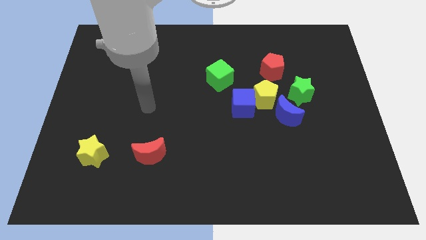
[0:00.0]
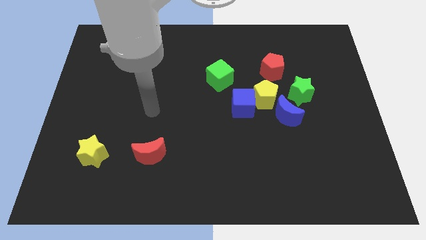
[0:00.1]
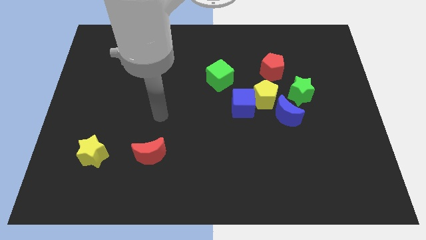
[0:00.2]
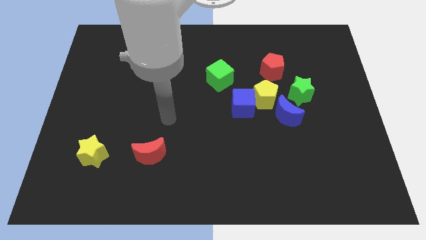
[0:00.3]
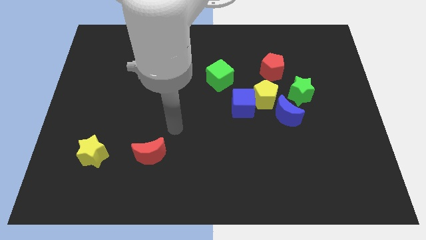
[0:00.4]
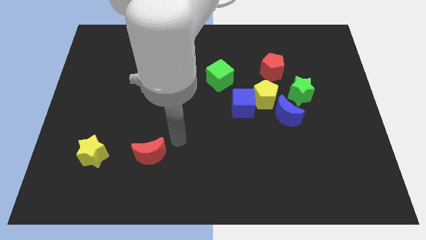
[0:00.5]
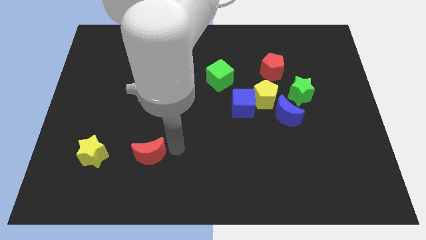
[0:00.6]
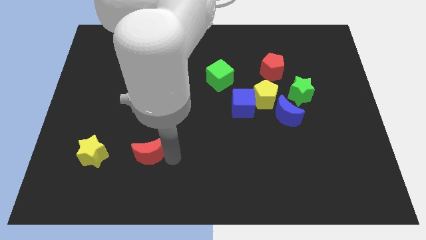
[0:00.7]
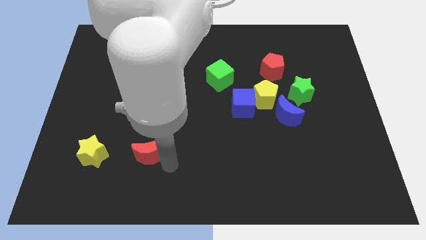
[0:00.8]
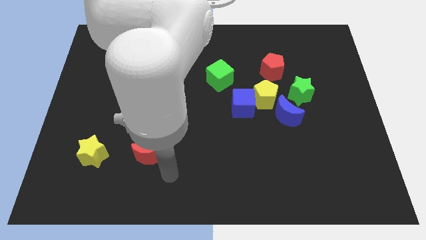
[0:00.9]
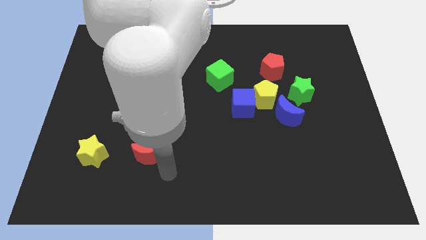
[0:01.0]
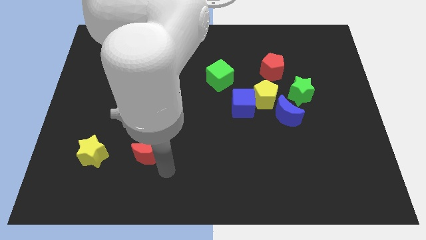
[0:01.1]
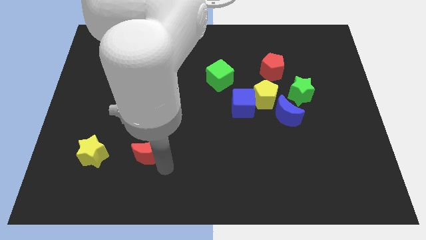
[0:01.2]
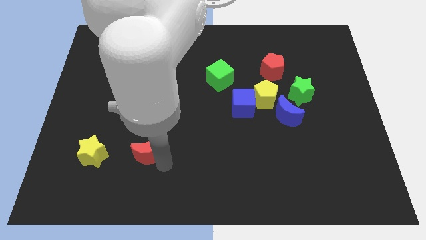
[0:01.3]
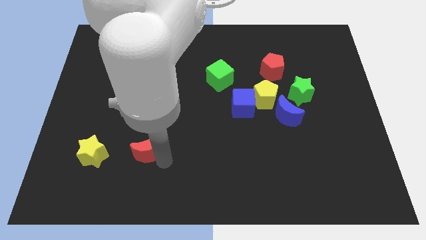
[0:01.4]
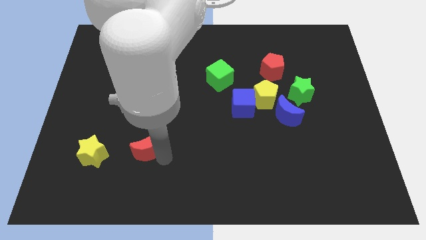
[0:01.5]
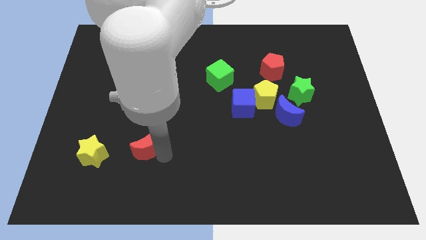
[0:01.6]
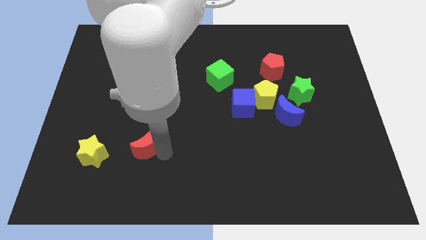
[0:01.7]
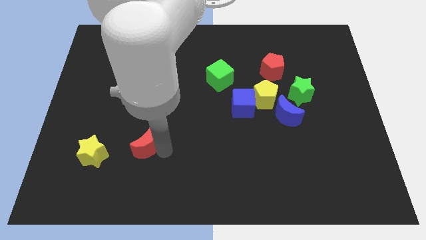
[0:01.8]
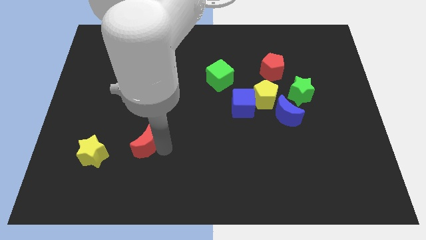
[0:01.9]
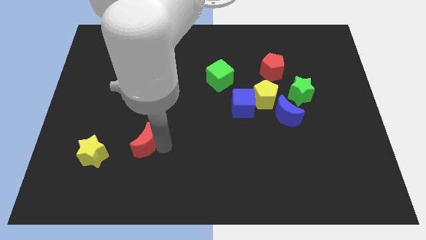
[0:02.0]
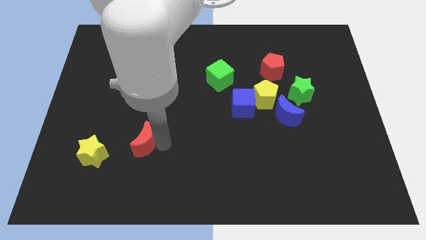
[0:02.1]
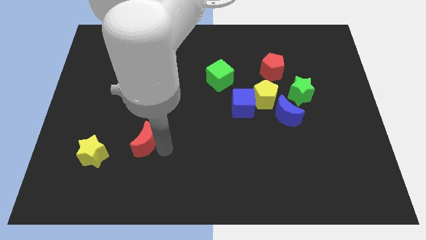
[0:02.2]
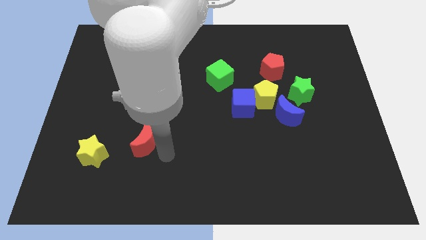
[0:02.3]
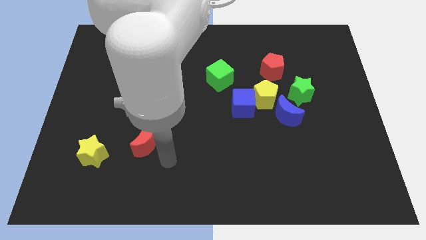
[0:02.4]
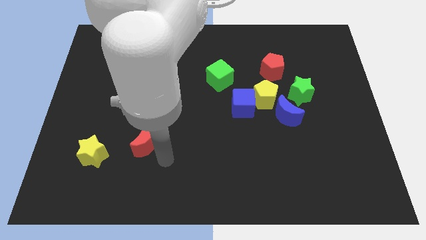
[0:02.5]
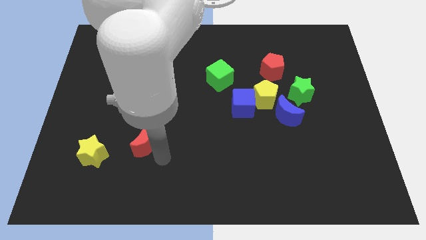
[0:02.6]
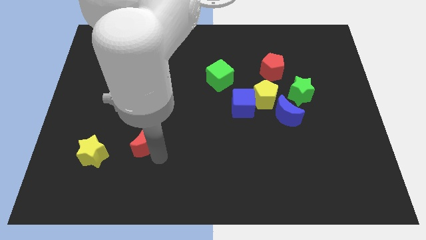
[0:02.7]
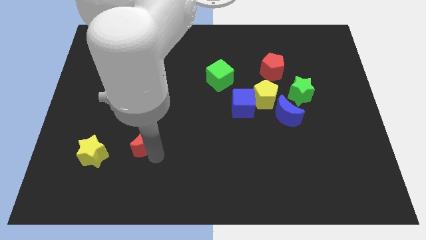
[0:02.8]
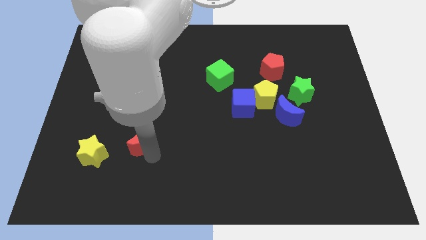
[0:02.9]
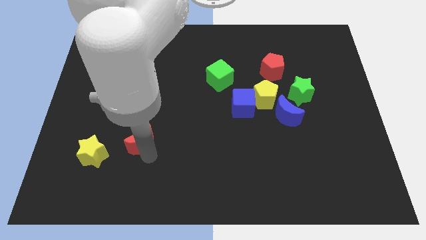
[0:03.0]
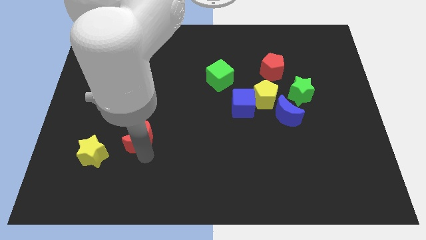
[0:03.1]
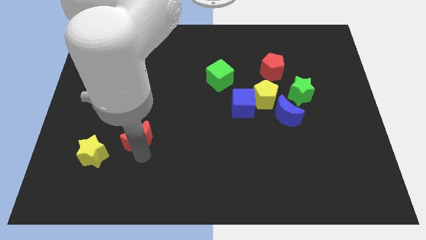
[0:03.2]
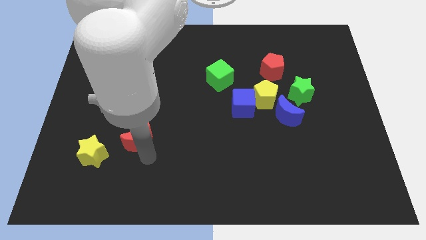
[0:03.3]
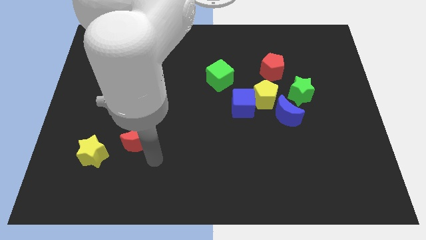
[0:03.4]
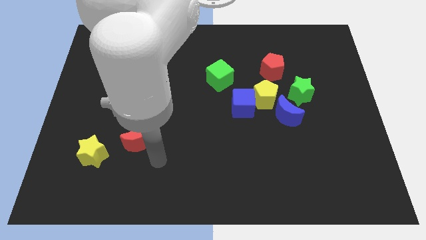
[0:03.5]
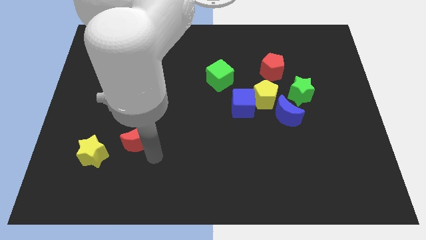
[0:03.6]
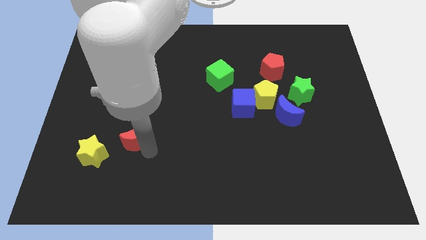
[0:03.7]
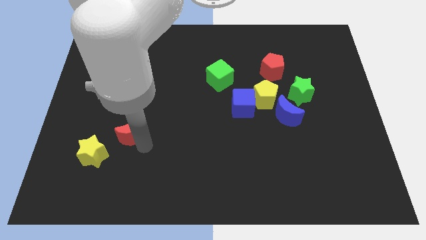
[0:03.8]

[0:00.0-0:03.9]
slightly move the red moon upwards and to the left

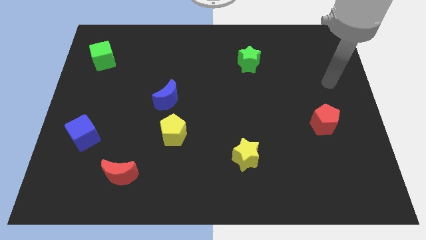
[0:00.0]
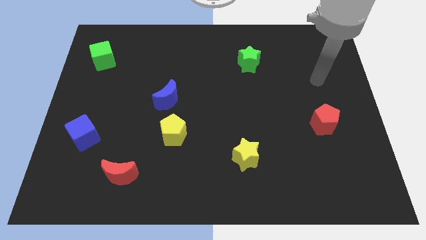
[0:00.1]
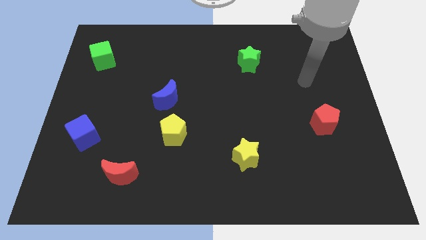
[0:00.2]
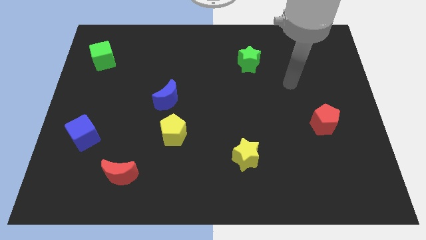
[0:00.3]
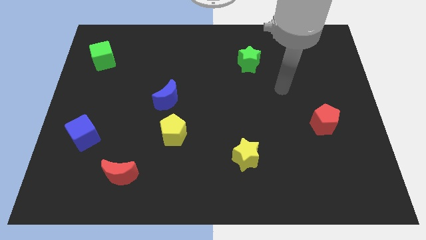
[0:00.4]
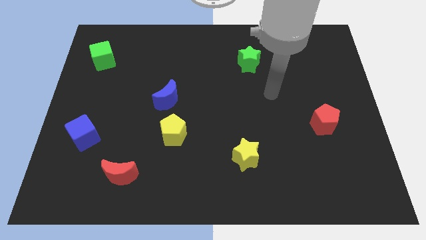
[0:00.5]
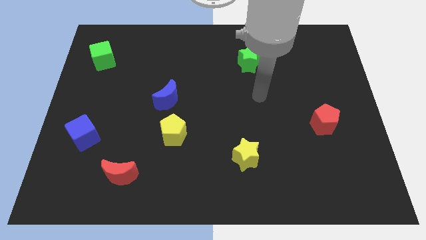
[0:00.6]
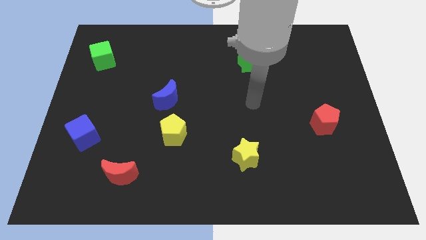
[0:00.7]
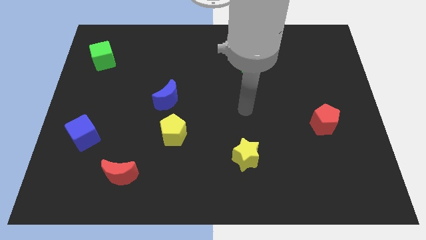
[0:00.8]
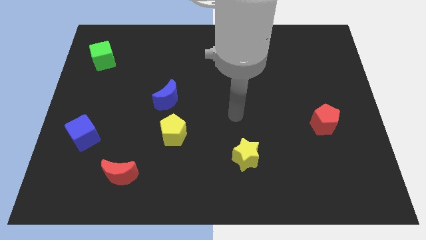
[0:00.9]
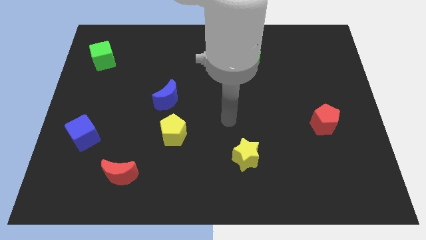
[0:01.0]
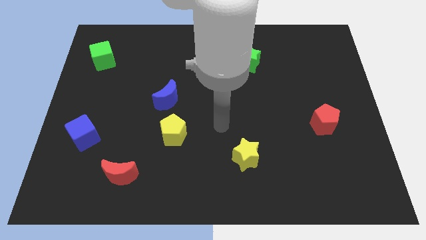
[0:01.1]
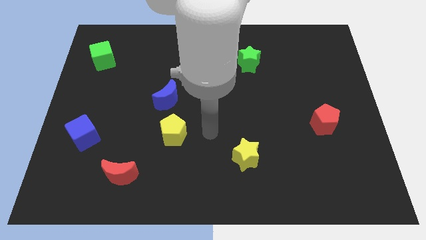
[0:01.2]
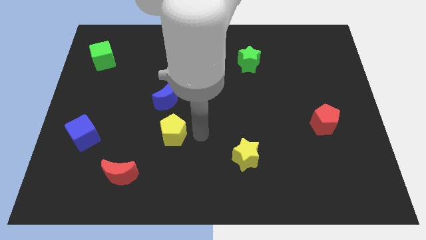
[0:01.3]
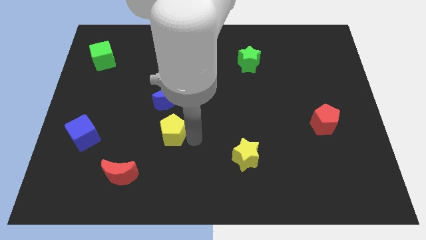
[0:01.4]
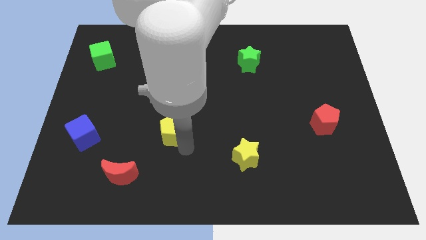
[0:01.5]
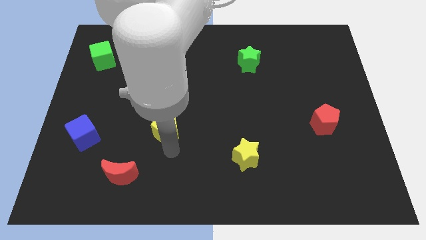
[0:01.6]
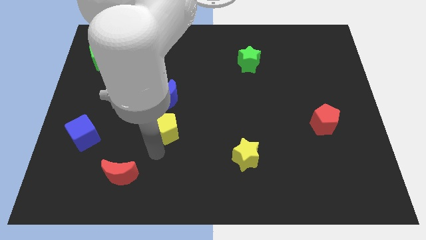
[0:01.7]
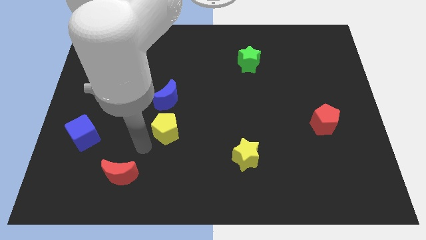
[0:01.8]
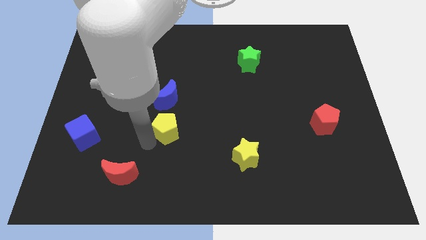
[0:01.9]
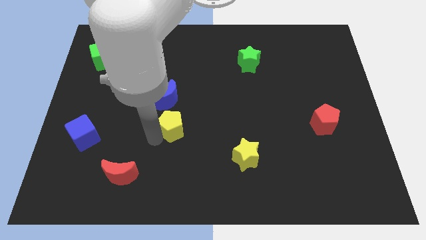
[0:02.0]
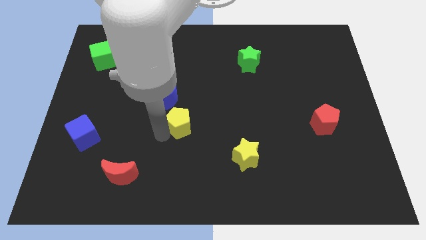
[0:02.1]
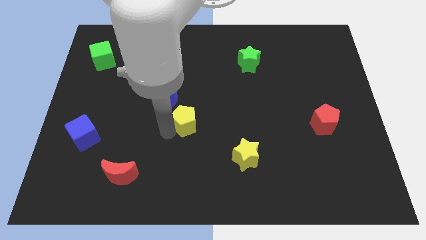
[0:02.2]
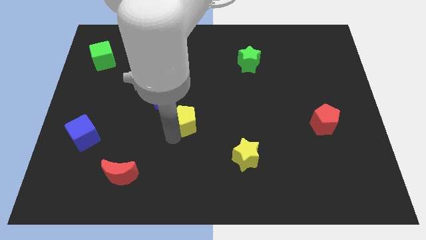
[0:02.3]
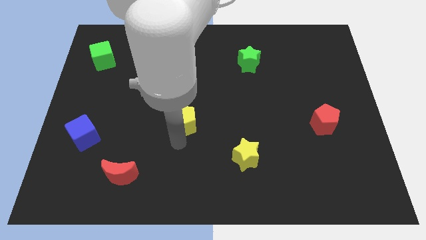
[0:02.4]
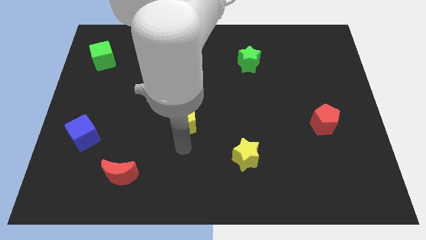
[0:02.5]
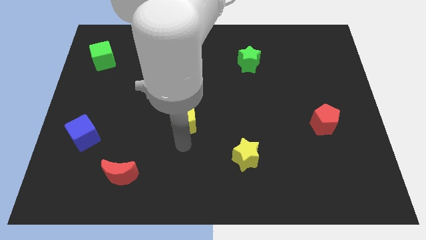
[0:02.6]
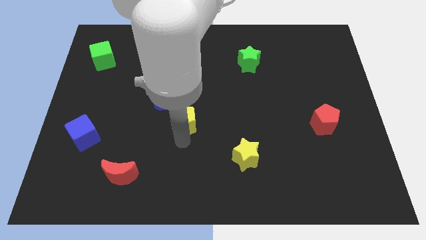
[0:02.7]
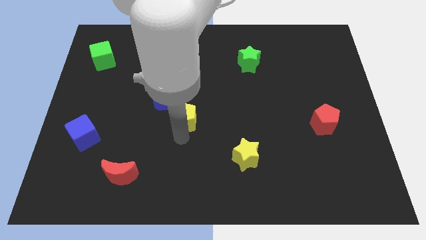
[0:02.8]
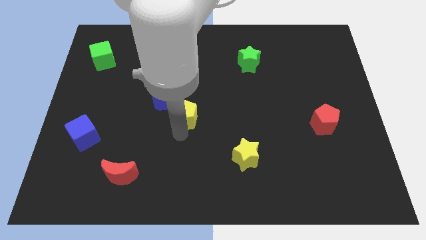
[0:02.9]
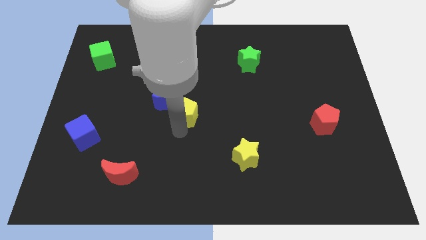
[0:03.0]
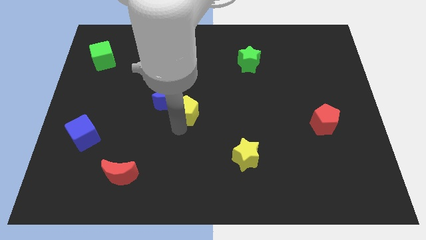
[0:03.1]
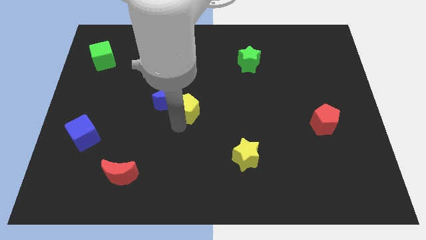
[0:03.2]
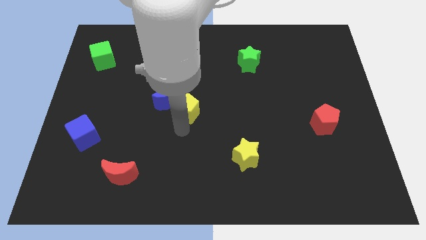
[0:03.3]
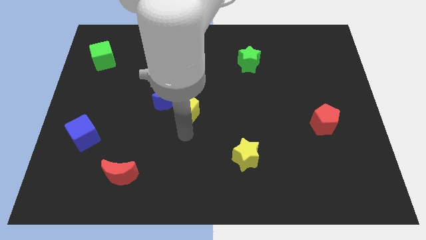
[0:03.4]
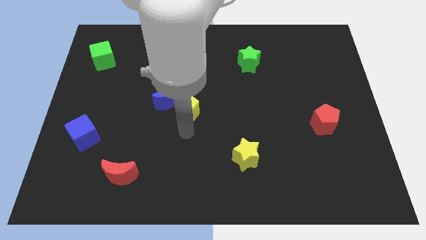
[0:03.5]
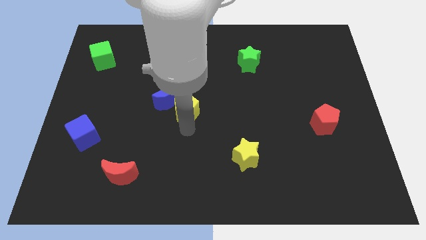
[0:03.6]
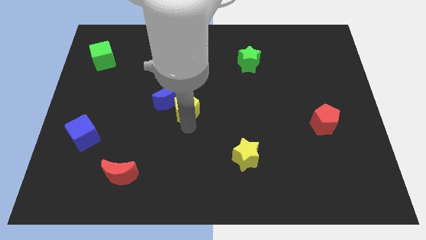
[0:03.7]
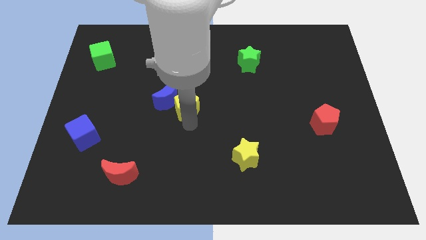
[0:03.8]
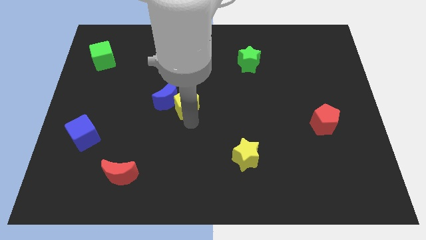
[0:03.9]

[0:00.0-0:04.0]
push the yellow pentagon a little up
